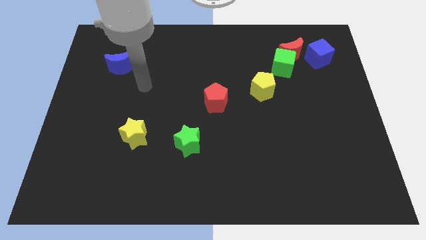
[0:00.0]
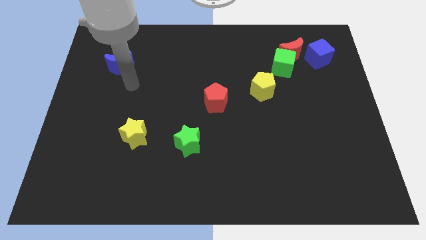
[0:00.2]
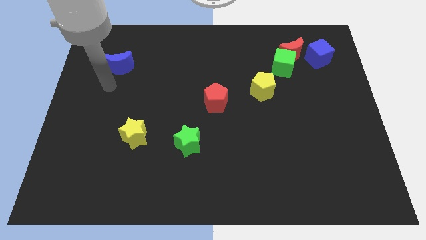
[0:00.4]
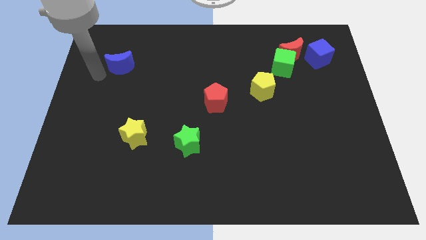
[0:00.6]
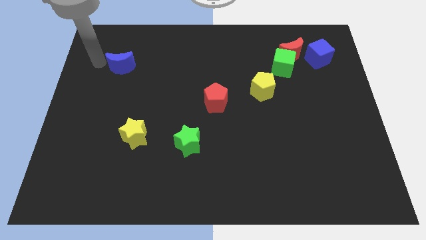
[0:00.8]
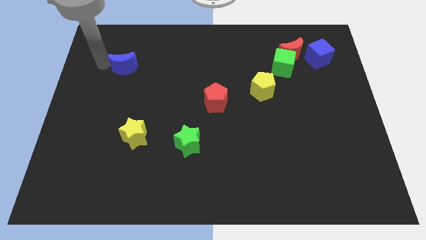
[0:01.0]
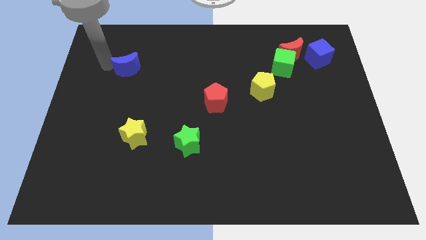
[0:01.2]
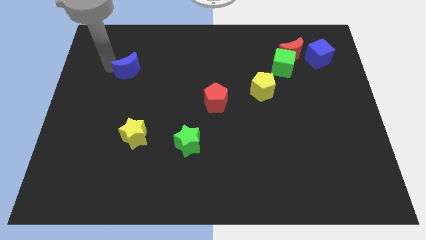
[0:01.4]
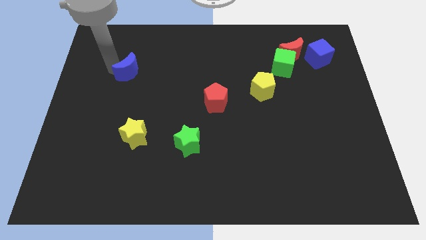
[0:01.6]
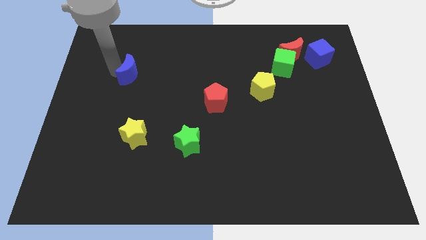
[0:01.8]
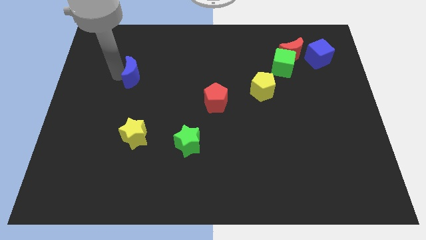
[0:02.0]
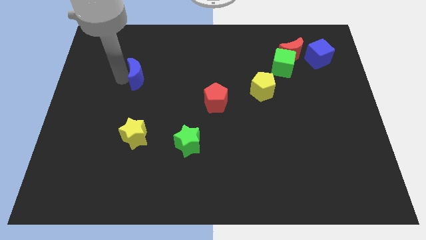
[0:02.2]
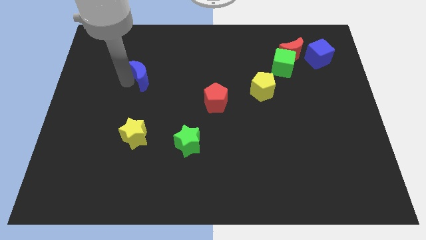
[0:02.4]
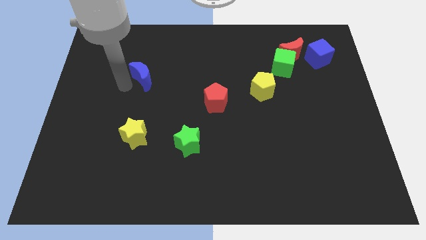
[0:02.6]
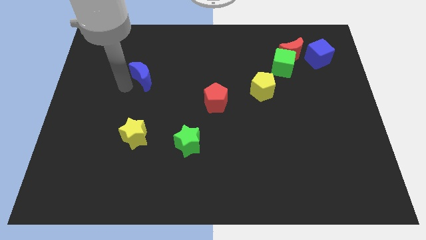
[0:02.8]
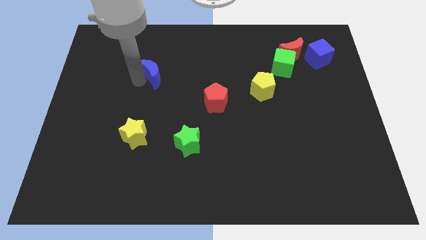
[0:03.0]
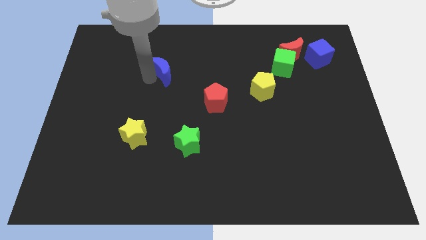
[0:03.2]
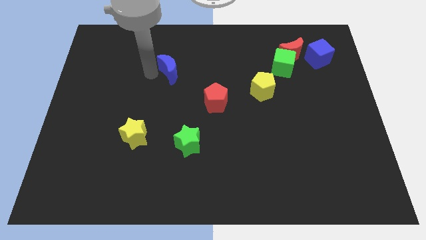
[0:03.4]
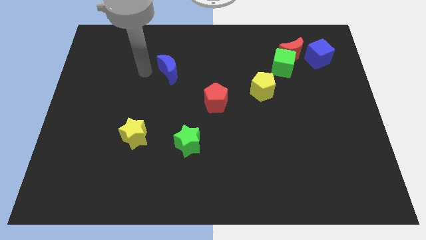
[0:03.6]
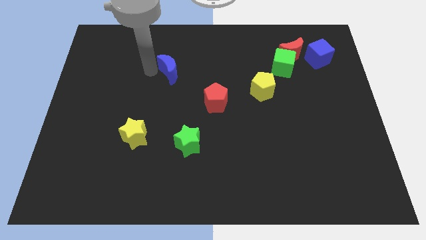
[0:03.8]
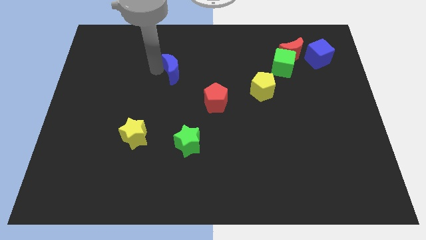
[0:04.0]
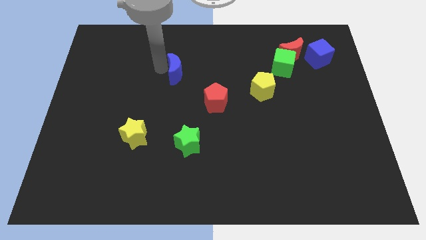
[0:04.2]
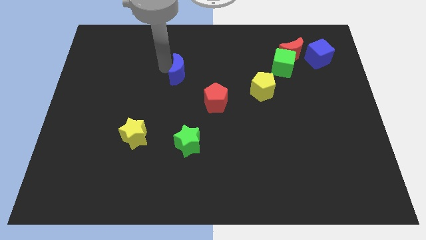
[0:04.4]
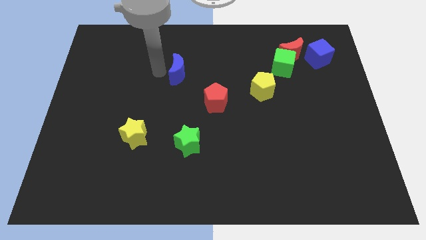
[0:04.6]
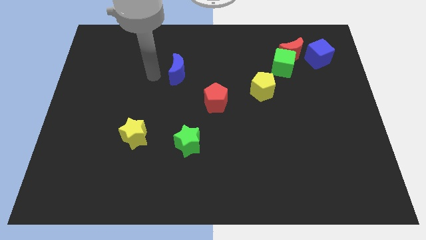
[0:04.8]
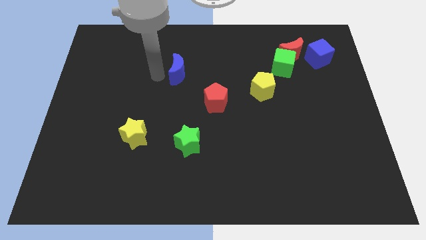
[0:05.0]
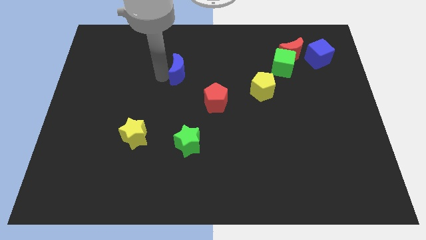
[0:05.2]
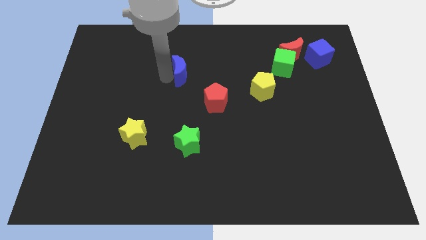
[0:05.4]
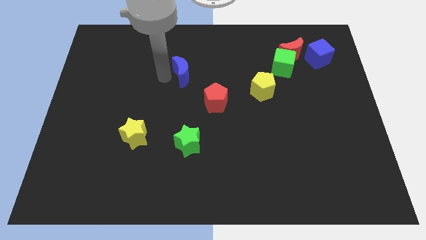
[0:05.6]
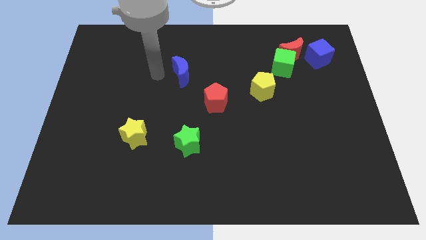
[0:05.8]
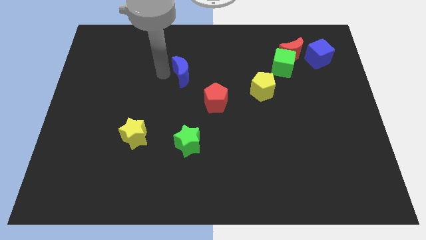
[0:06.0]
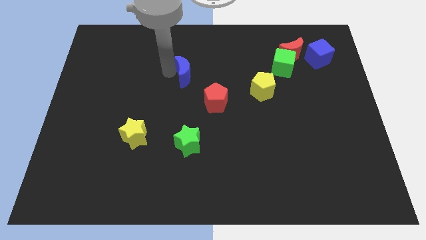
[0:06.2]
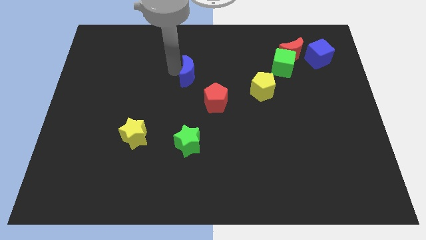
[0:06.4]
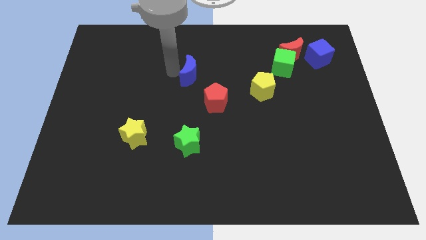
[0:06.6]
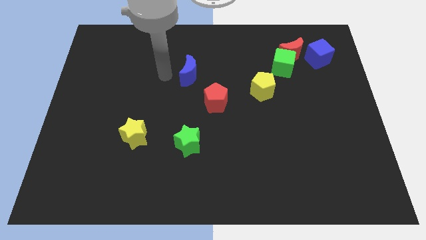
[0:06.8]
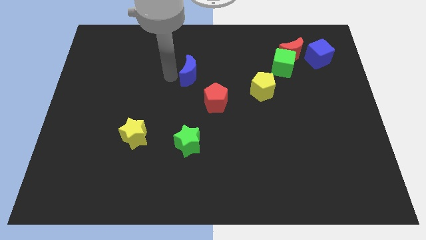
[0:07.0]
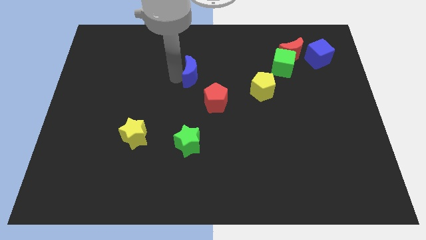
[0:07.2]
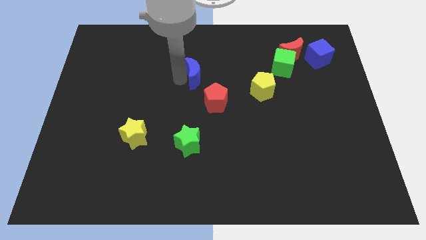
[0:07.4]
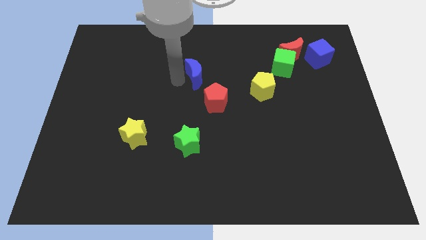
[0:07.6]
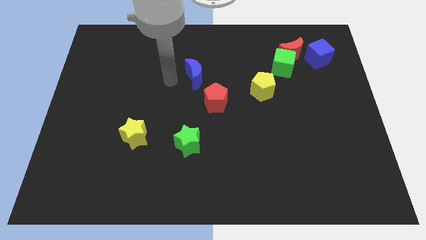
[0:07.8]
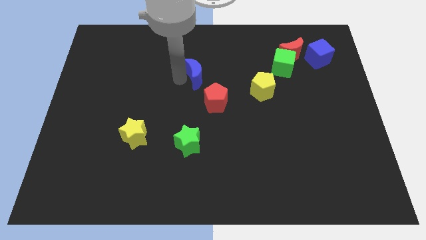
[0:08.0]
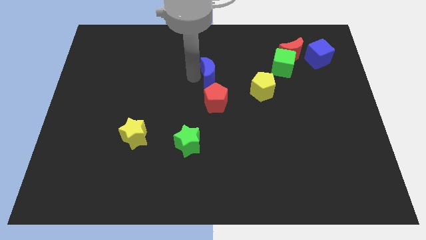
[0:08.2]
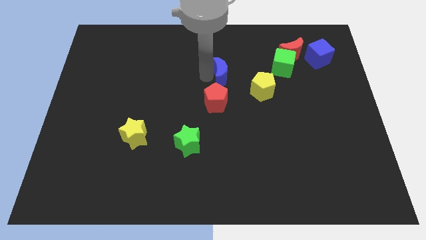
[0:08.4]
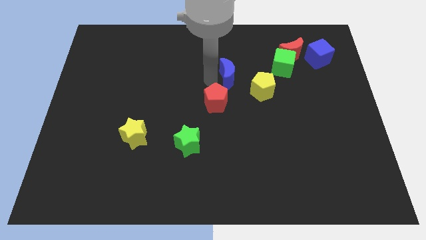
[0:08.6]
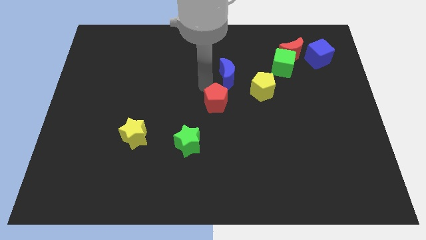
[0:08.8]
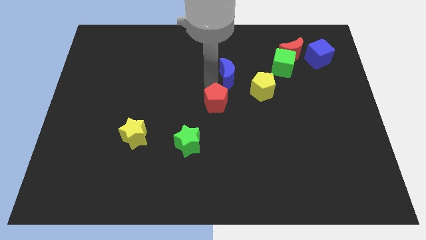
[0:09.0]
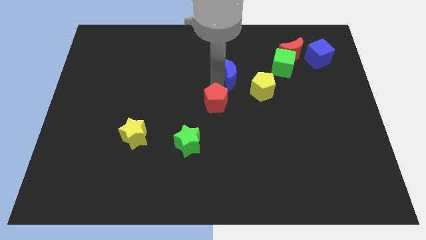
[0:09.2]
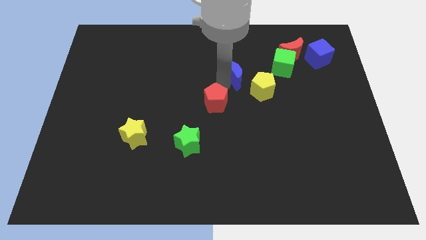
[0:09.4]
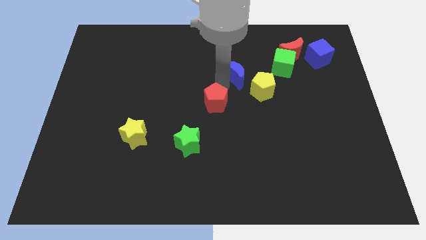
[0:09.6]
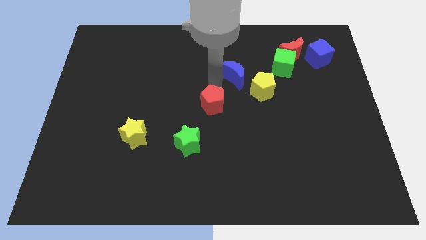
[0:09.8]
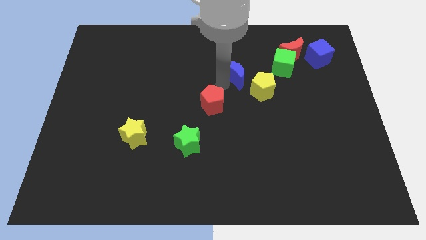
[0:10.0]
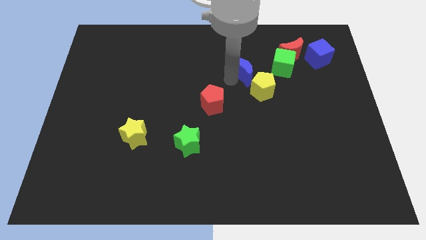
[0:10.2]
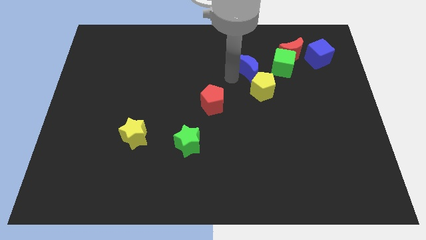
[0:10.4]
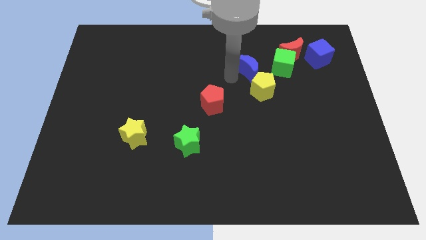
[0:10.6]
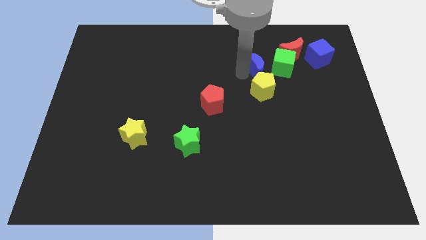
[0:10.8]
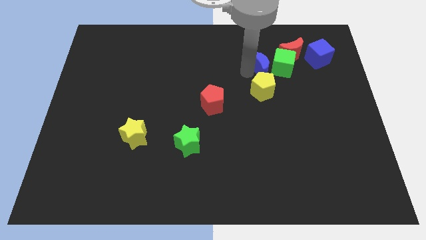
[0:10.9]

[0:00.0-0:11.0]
slide the blue moon close to the green cube

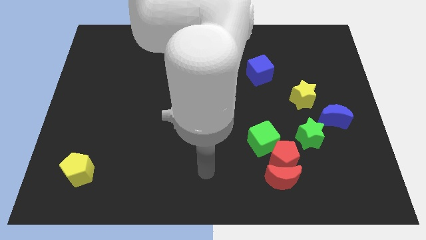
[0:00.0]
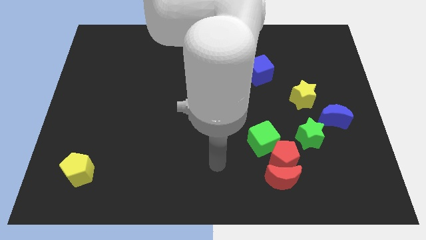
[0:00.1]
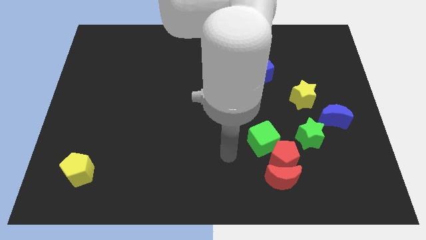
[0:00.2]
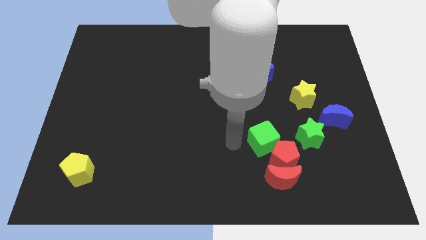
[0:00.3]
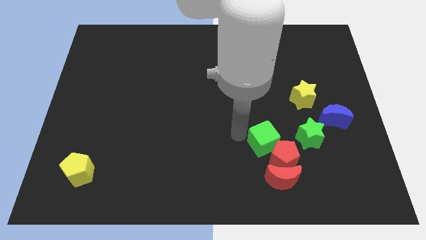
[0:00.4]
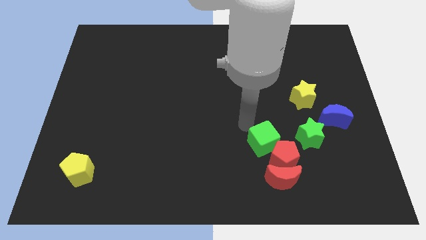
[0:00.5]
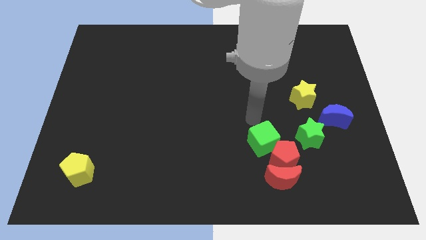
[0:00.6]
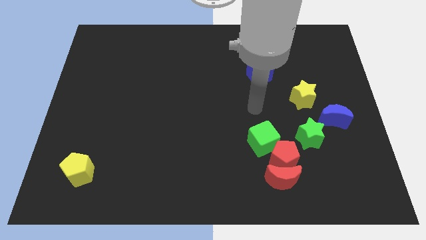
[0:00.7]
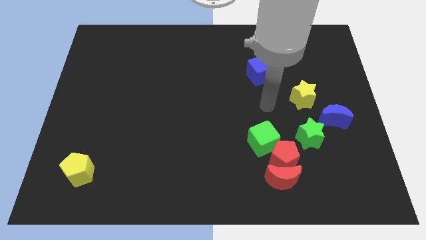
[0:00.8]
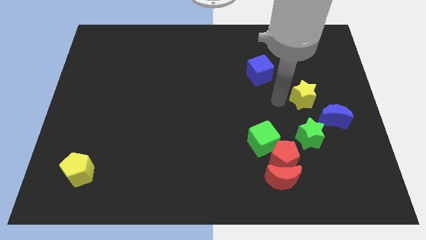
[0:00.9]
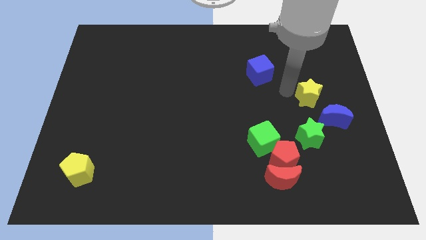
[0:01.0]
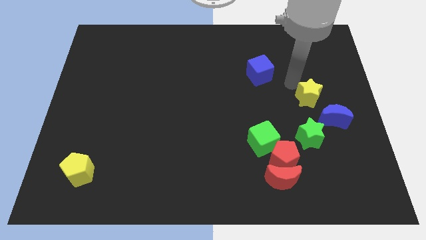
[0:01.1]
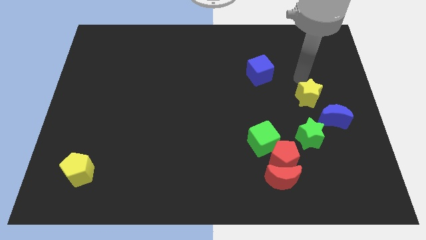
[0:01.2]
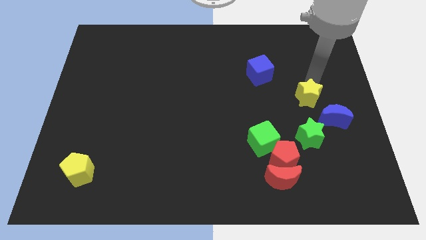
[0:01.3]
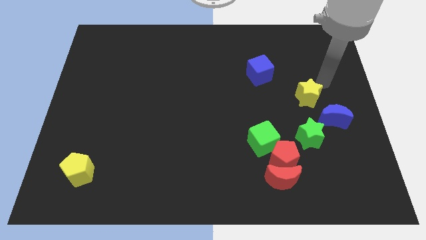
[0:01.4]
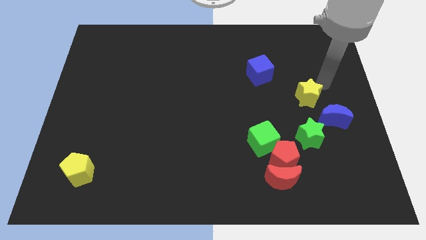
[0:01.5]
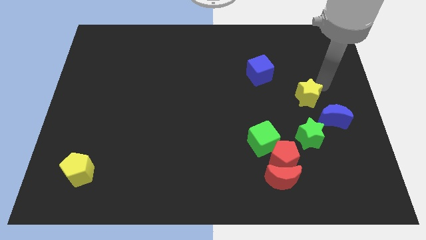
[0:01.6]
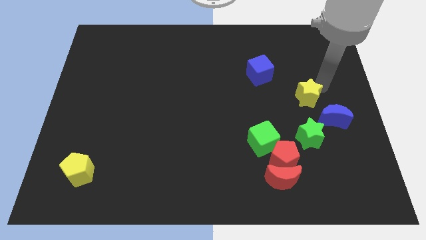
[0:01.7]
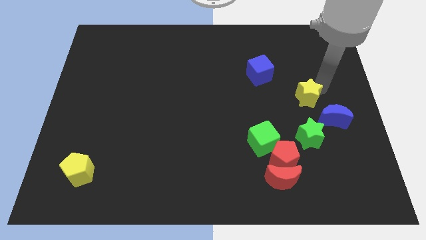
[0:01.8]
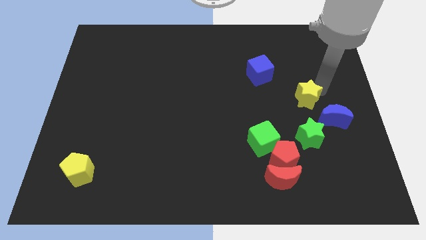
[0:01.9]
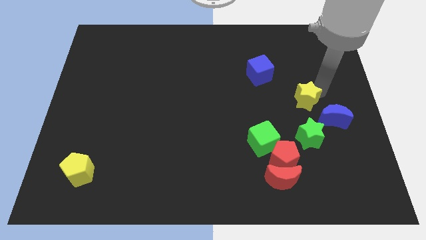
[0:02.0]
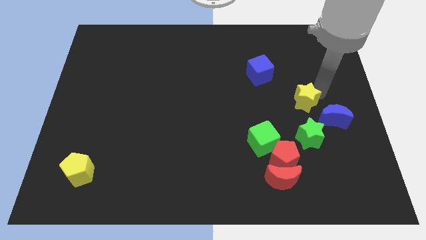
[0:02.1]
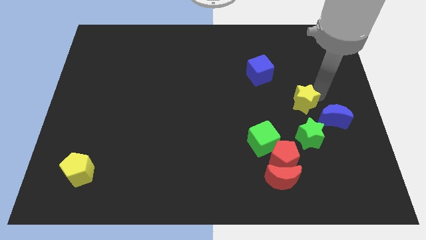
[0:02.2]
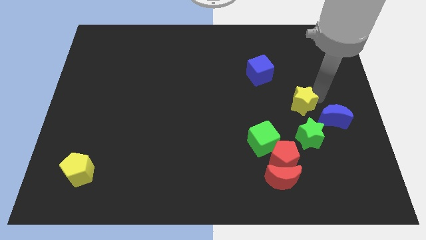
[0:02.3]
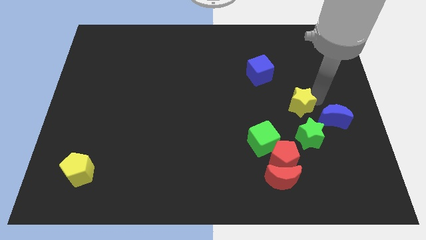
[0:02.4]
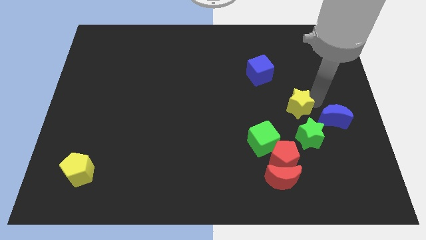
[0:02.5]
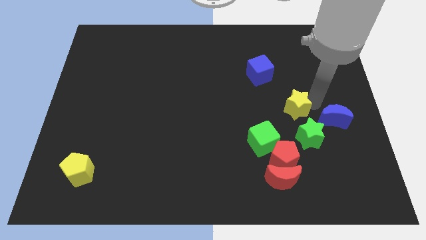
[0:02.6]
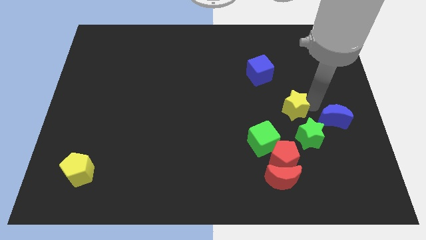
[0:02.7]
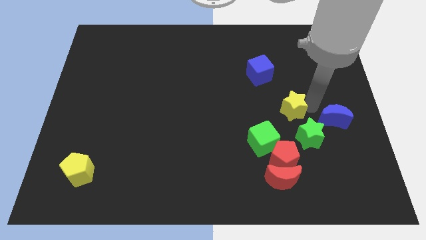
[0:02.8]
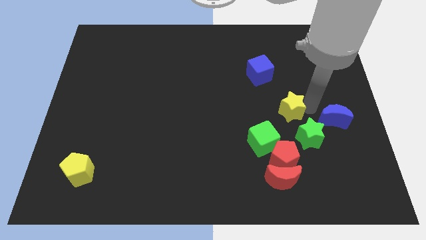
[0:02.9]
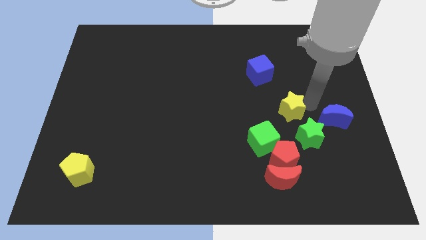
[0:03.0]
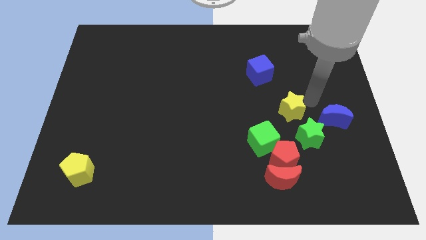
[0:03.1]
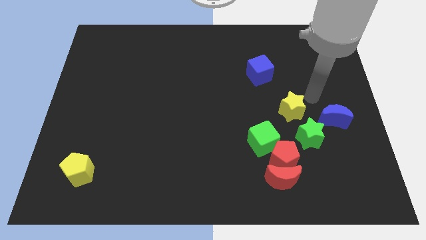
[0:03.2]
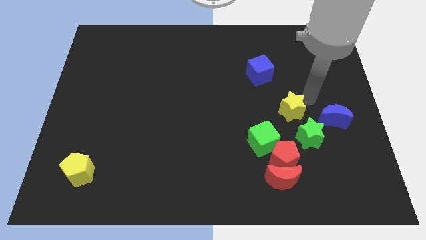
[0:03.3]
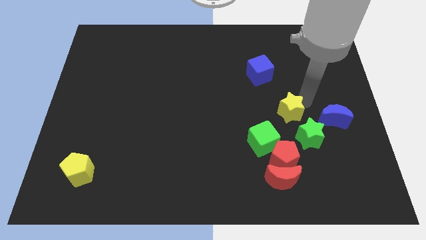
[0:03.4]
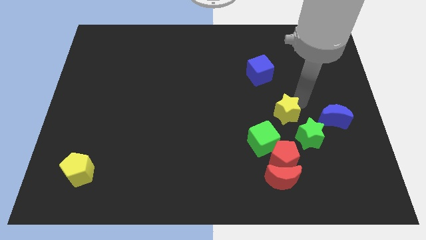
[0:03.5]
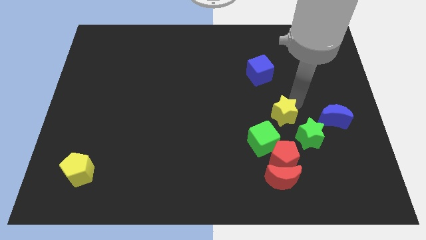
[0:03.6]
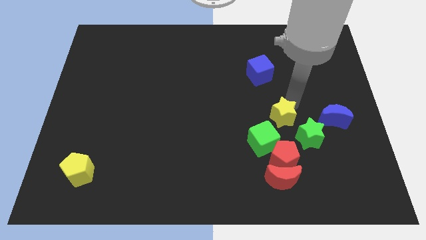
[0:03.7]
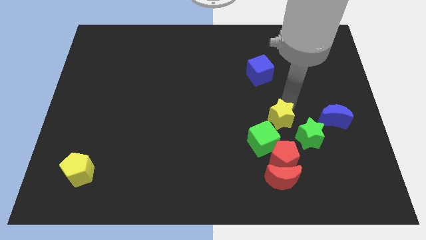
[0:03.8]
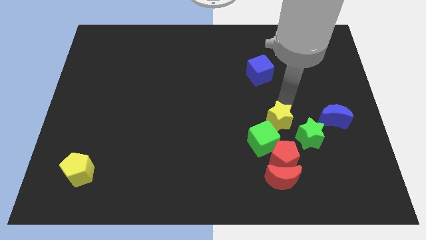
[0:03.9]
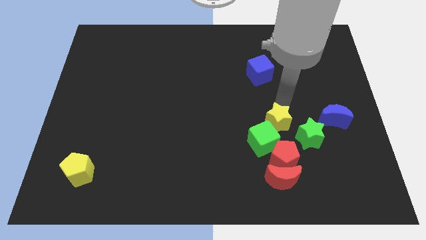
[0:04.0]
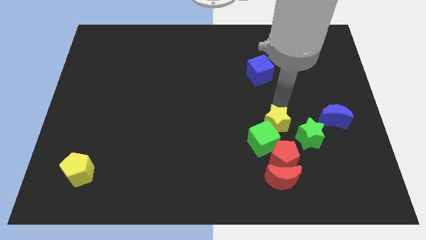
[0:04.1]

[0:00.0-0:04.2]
slide the yellow star to the green cube
